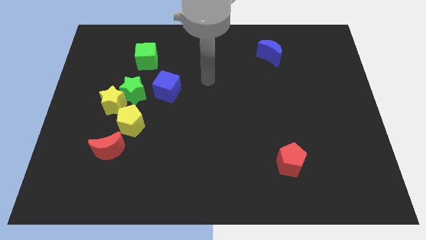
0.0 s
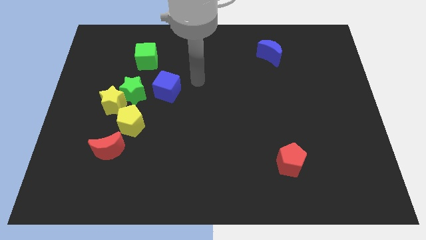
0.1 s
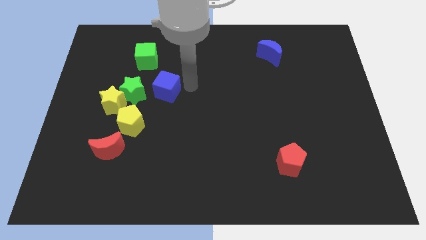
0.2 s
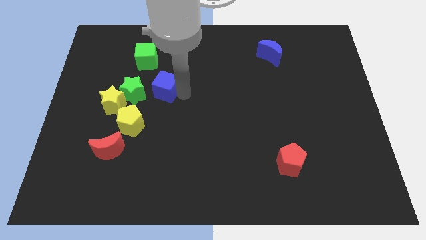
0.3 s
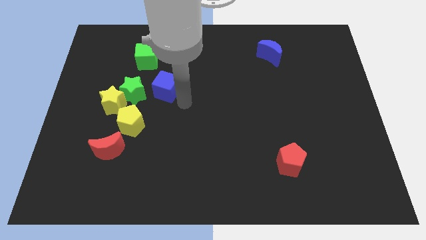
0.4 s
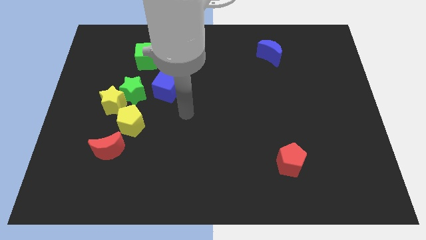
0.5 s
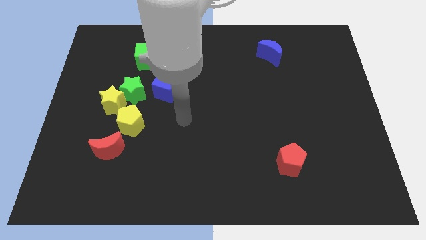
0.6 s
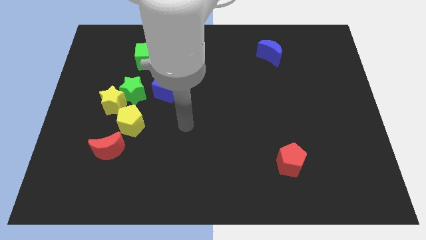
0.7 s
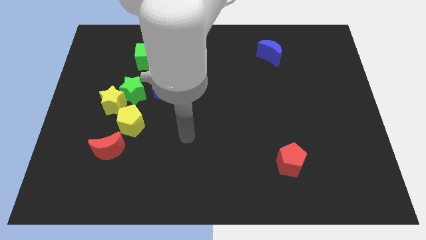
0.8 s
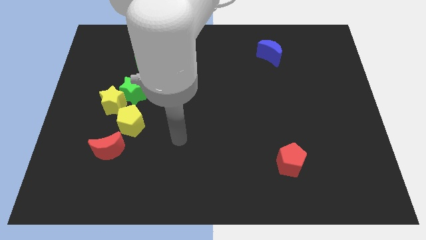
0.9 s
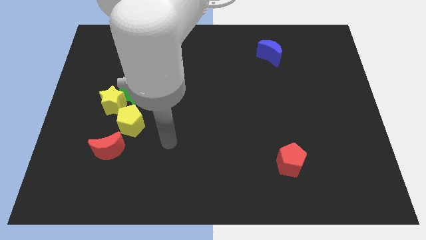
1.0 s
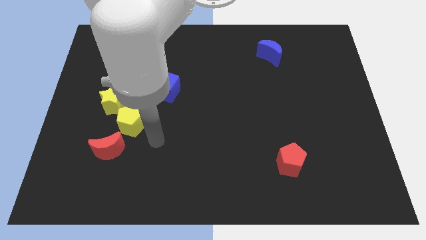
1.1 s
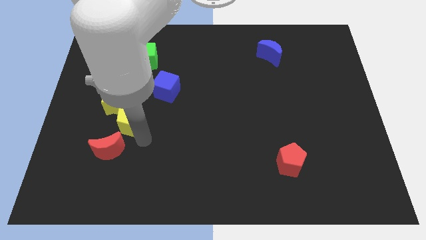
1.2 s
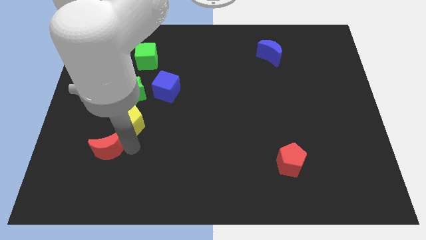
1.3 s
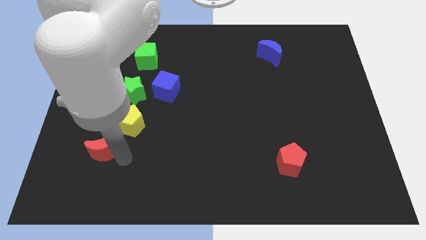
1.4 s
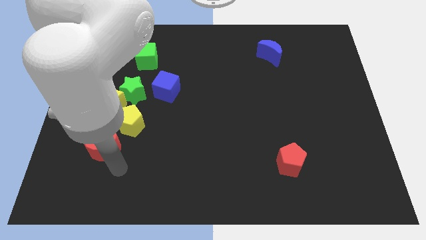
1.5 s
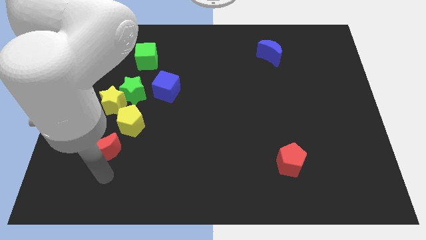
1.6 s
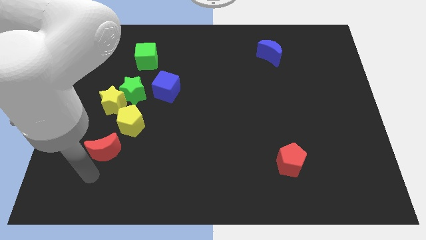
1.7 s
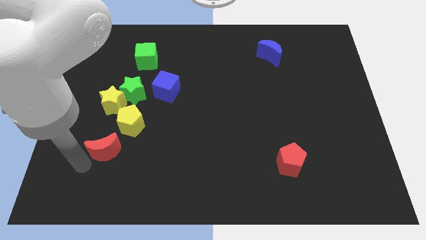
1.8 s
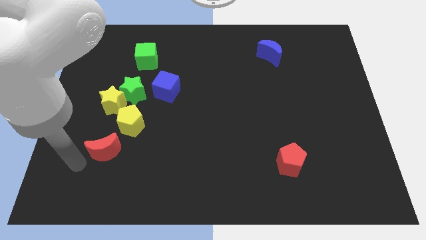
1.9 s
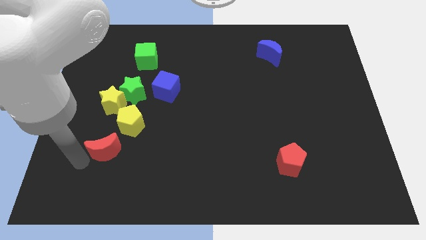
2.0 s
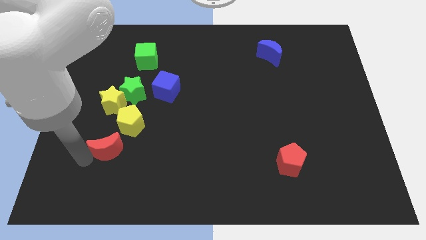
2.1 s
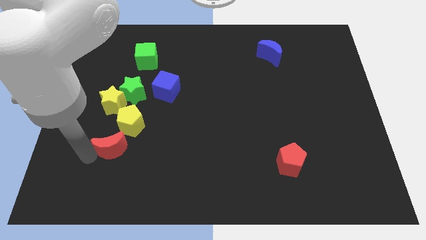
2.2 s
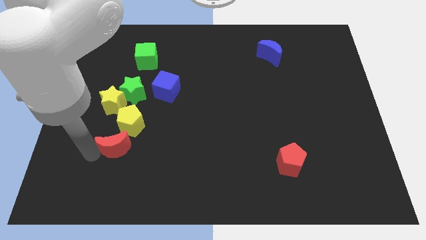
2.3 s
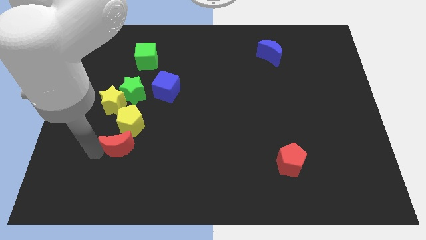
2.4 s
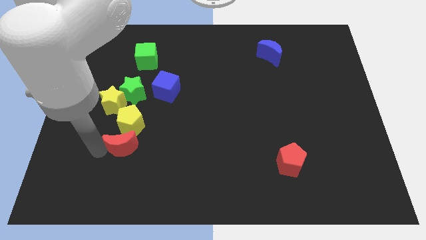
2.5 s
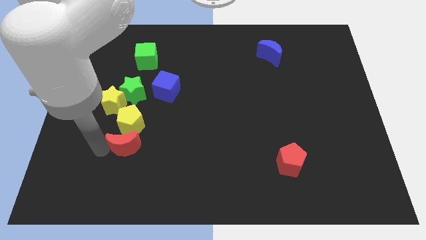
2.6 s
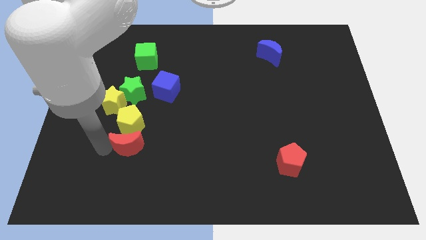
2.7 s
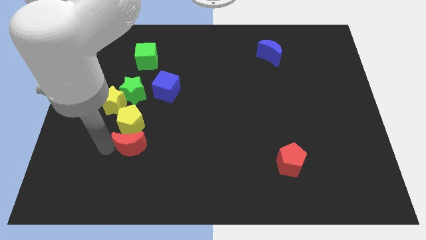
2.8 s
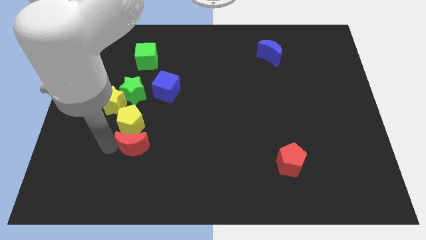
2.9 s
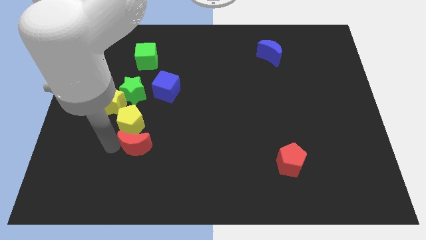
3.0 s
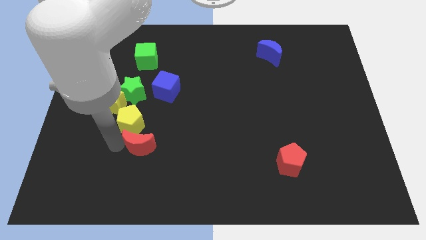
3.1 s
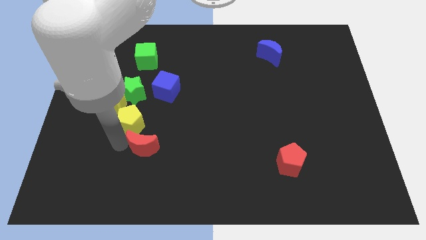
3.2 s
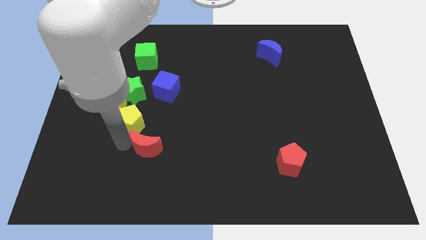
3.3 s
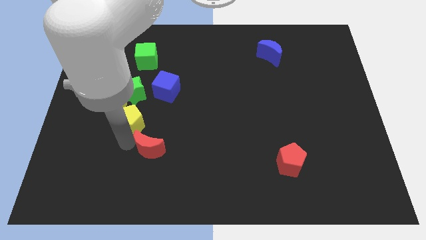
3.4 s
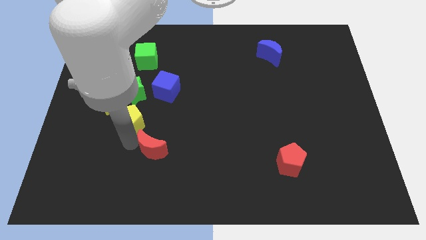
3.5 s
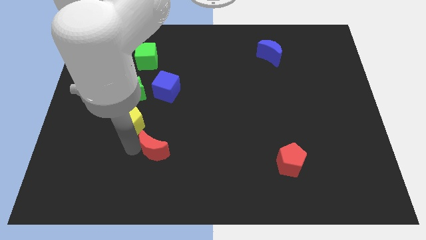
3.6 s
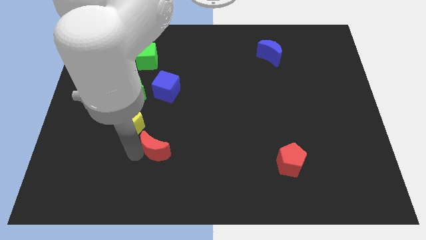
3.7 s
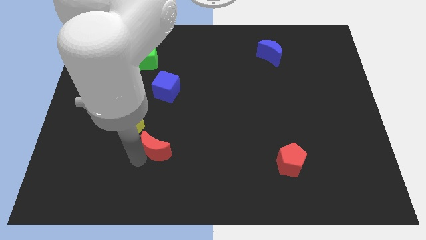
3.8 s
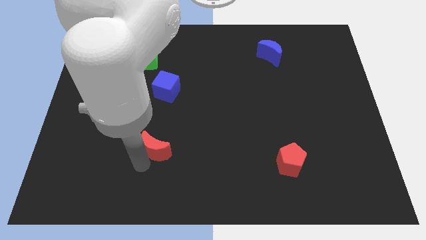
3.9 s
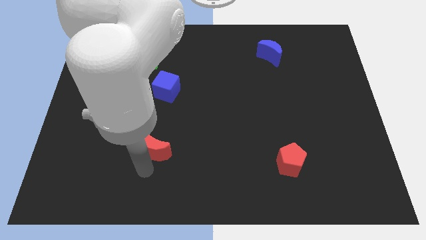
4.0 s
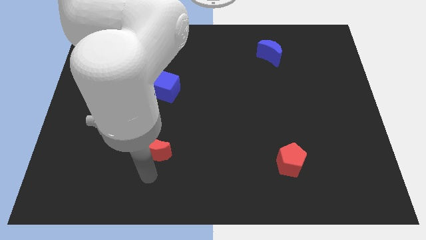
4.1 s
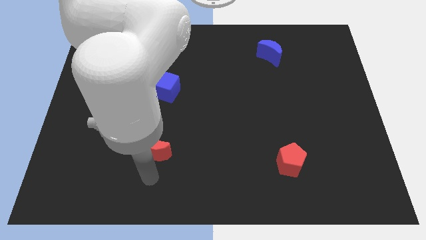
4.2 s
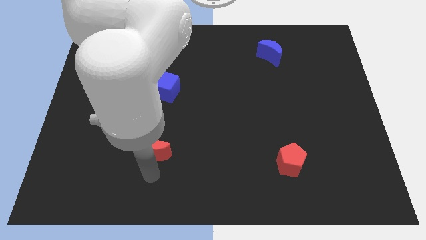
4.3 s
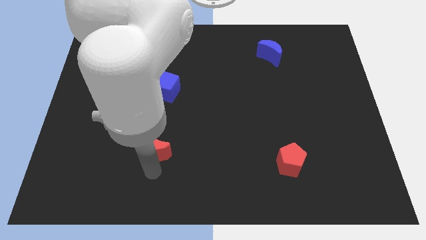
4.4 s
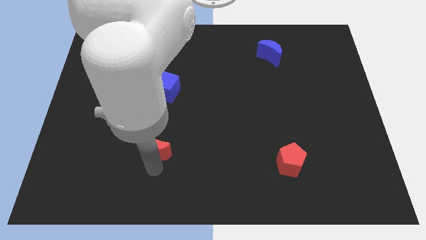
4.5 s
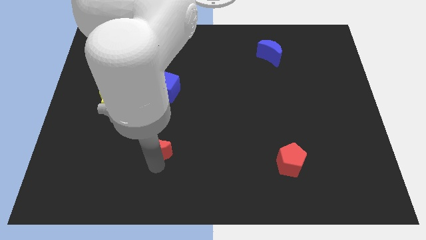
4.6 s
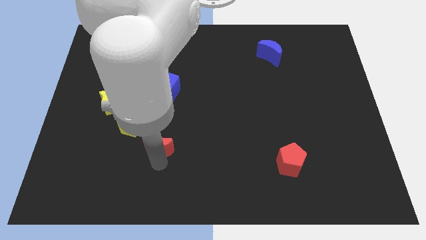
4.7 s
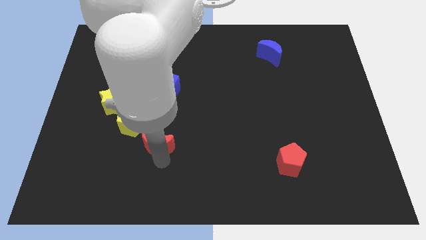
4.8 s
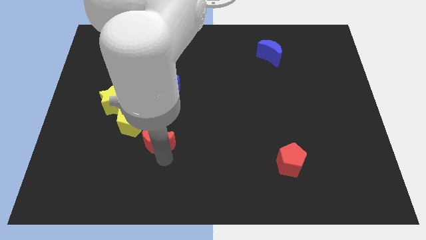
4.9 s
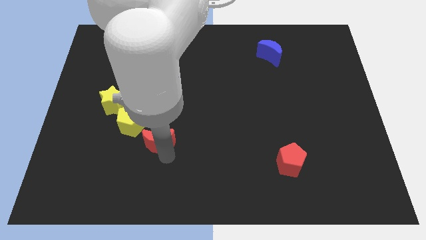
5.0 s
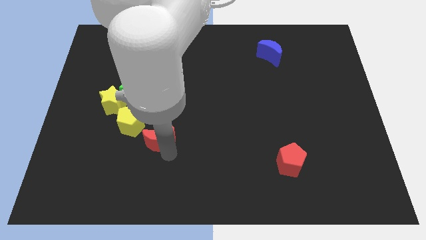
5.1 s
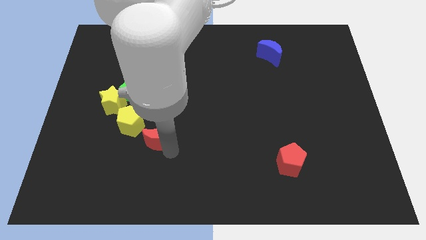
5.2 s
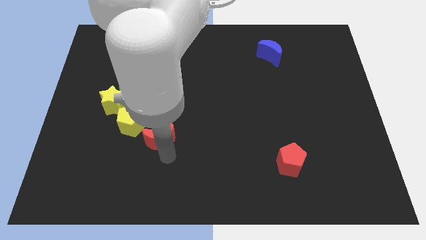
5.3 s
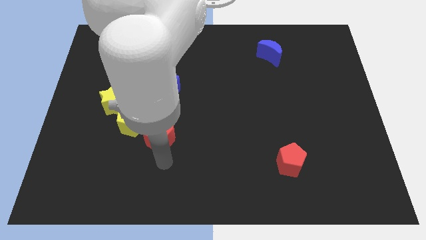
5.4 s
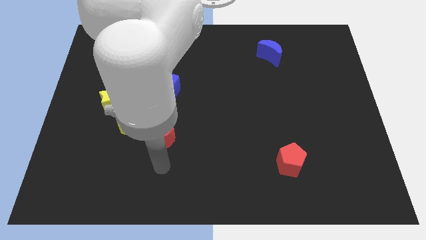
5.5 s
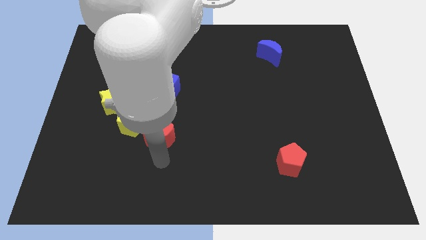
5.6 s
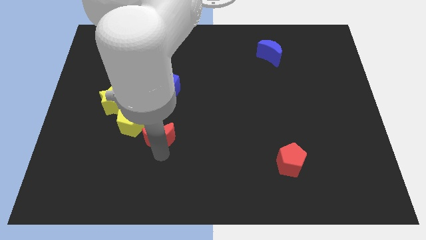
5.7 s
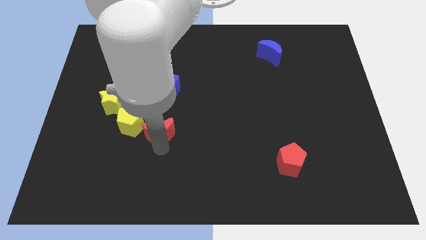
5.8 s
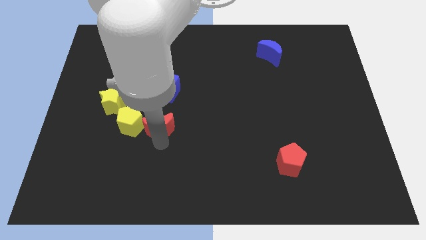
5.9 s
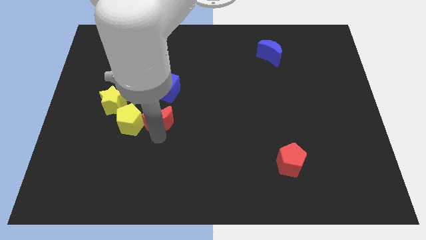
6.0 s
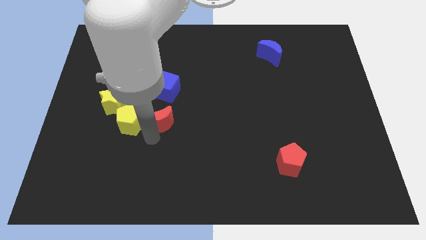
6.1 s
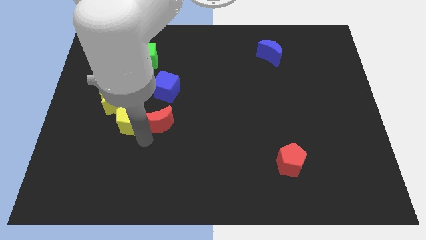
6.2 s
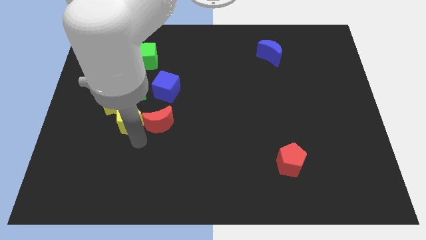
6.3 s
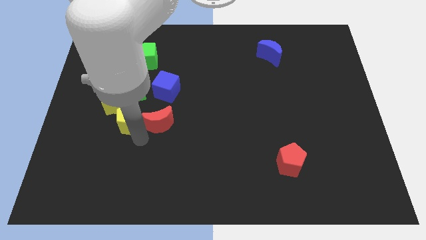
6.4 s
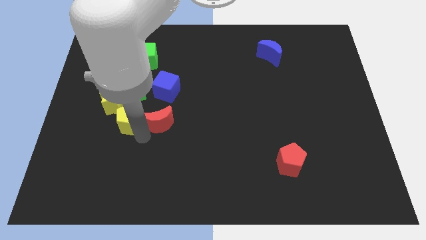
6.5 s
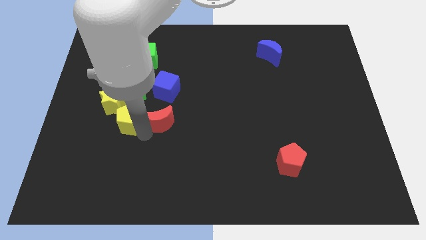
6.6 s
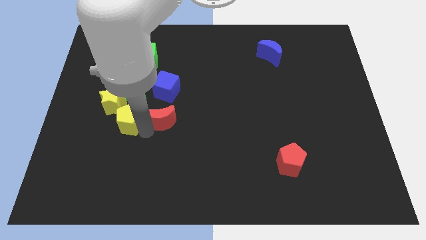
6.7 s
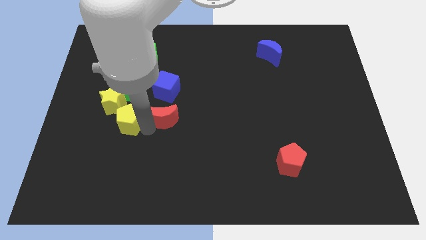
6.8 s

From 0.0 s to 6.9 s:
push the red moon to the center
